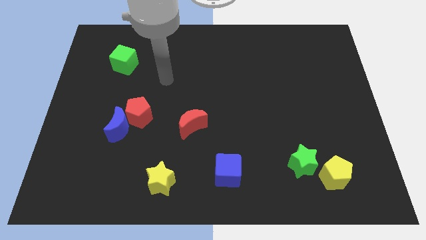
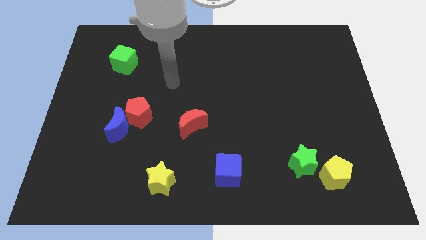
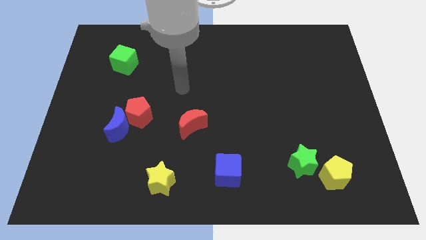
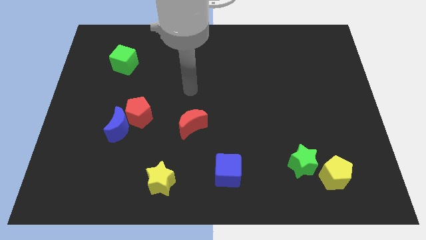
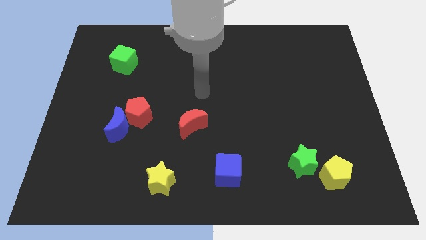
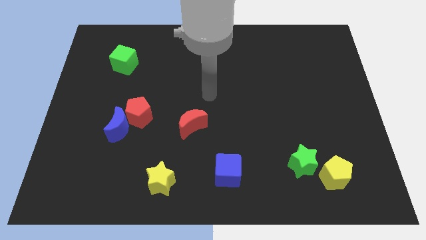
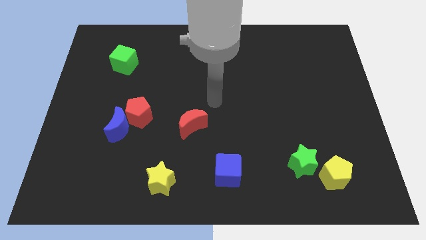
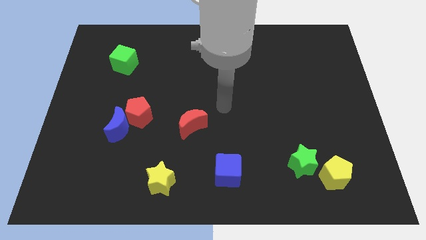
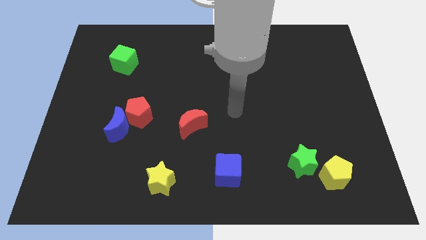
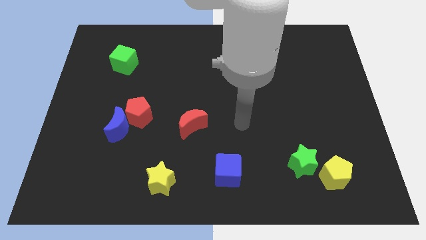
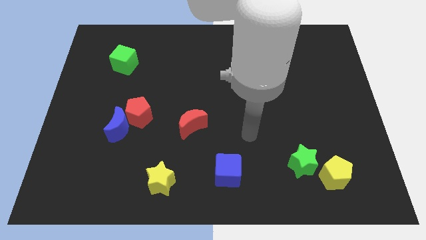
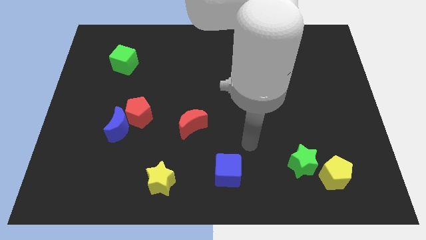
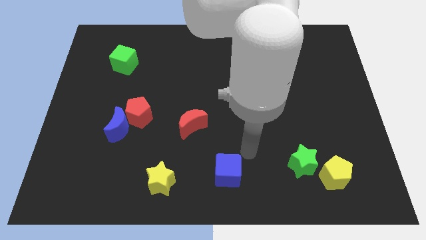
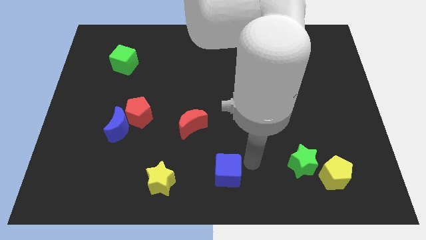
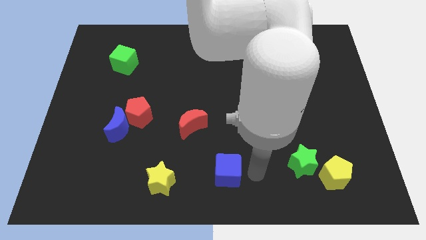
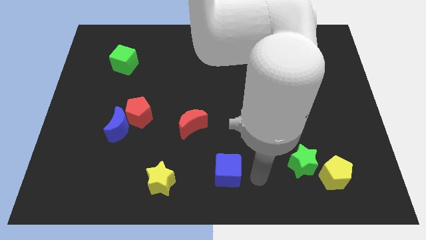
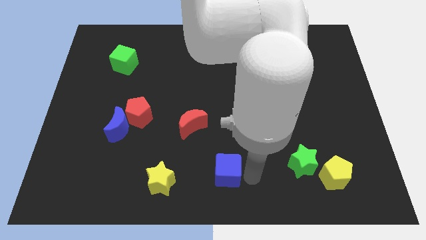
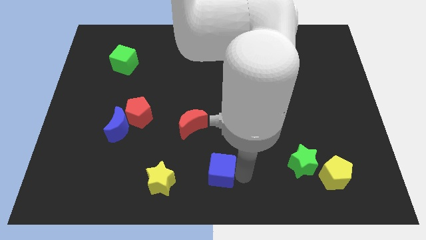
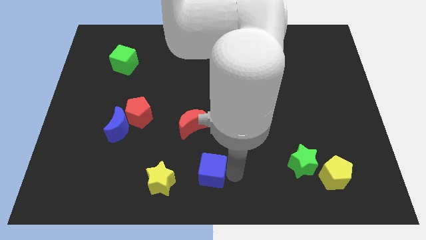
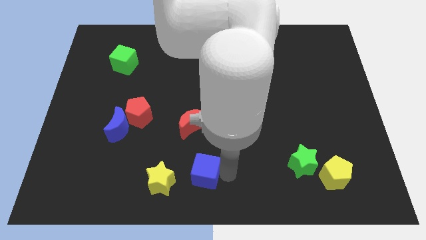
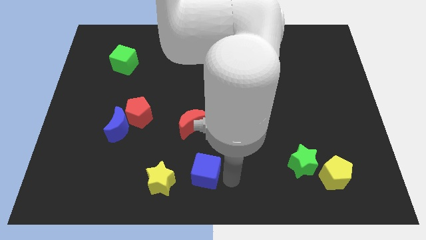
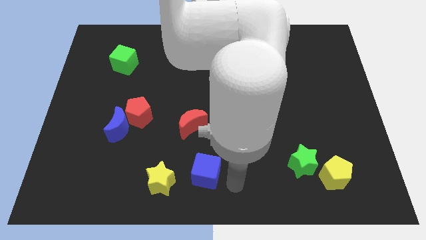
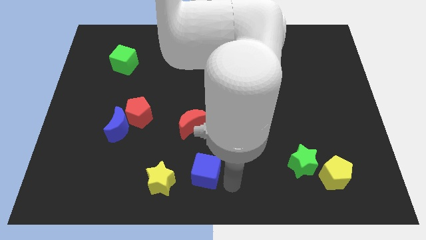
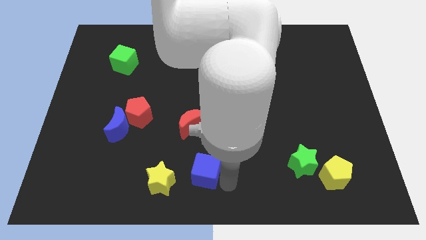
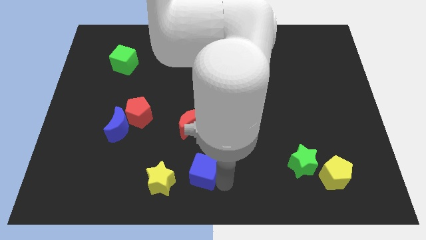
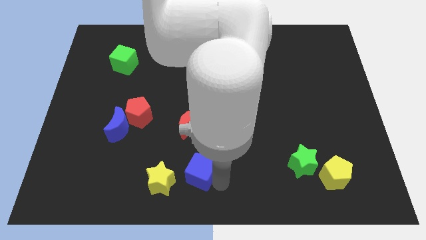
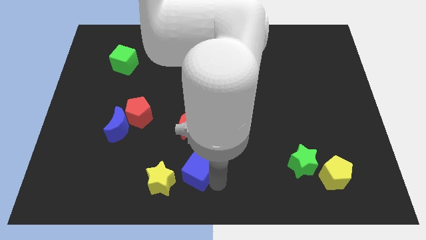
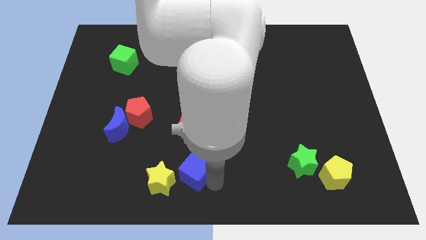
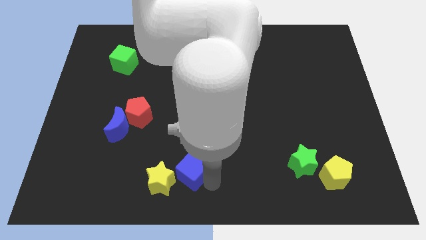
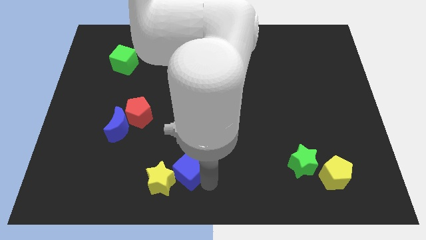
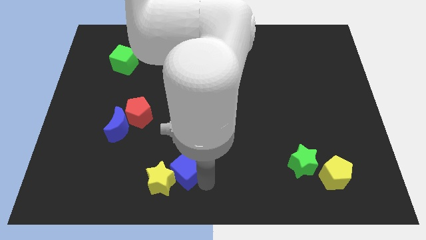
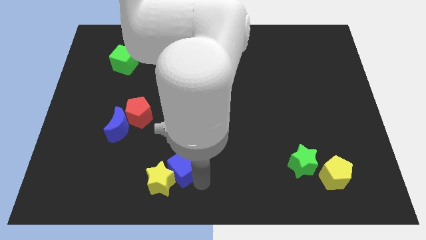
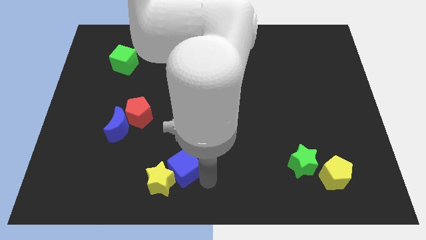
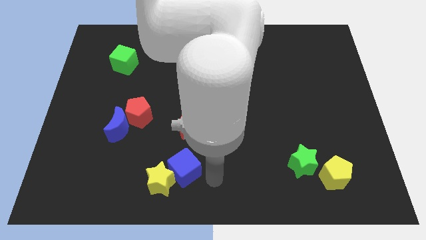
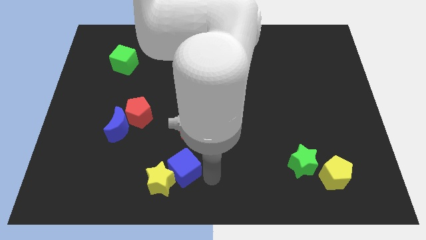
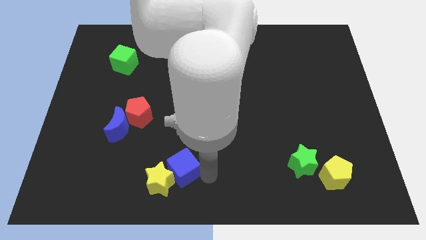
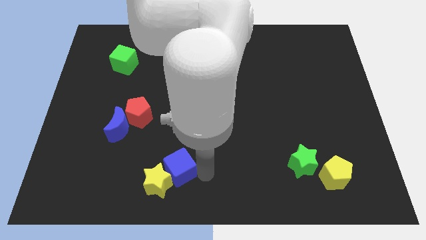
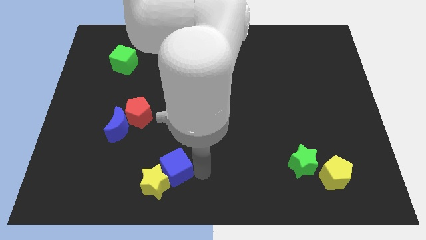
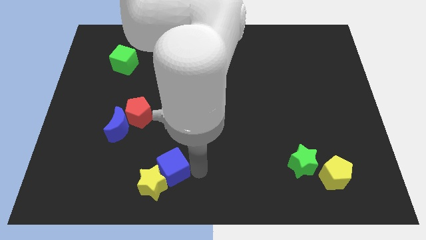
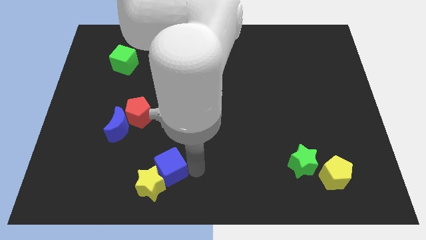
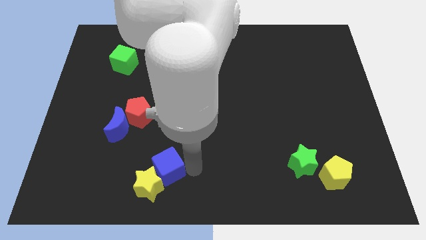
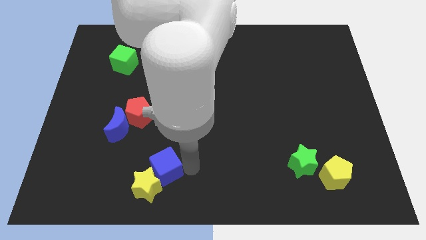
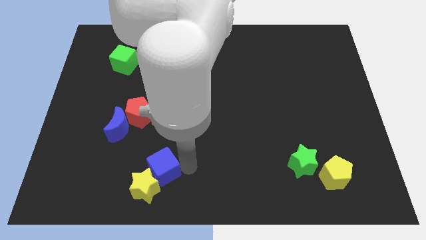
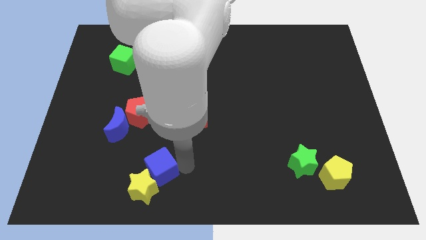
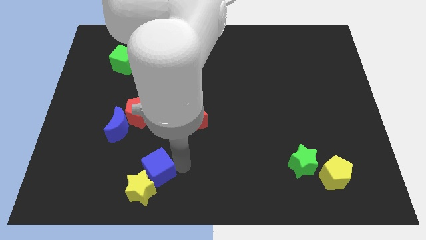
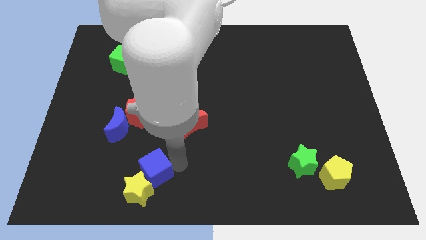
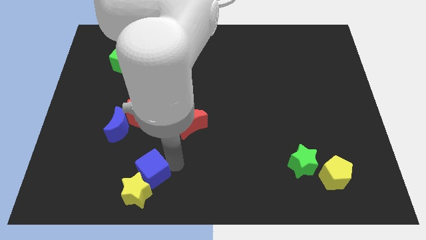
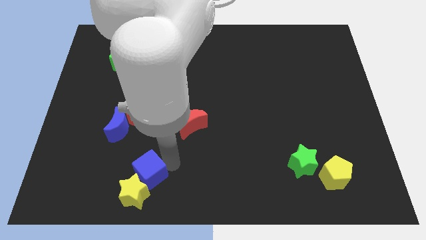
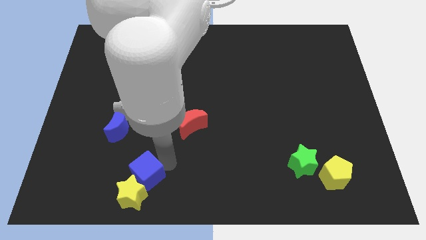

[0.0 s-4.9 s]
move the blue cube to the bottom side of the red pentagon

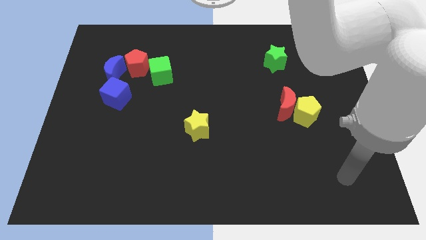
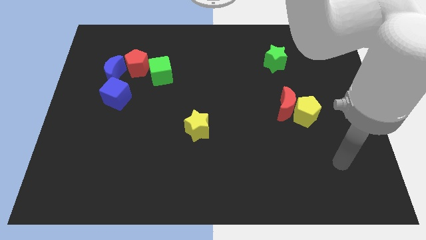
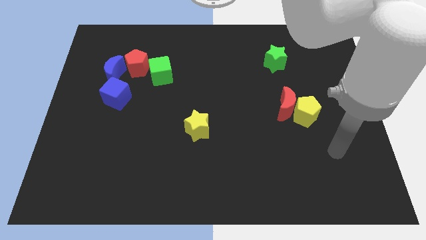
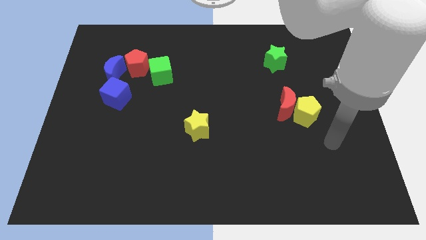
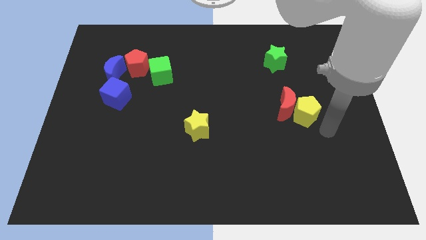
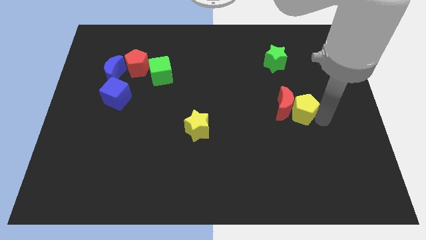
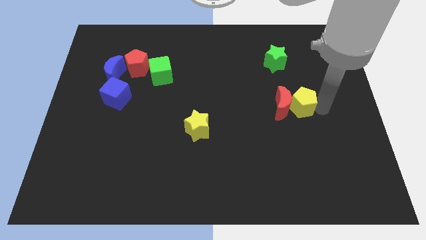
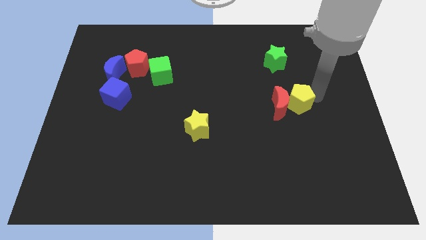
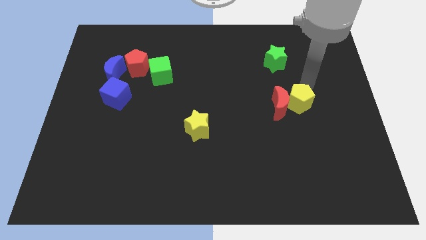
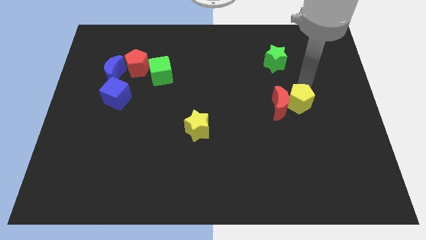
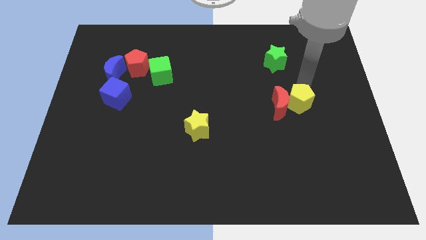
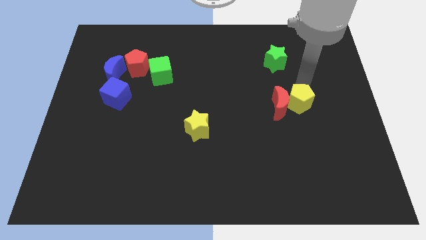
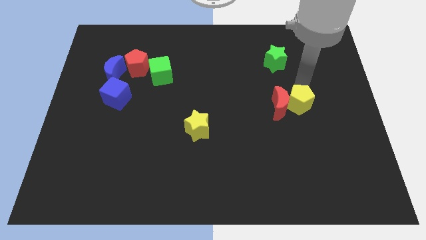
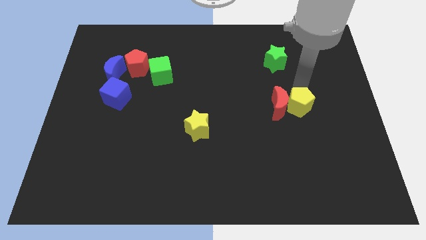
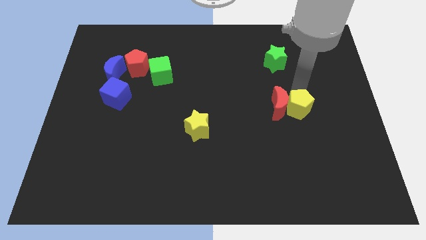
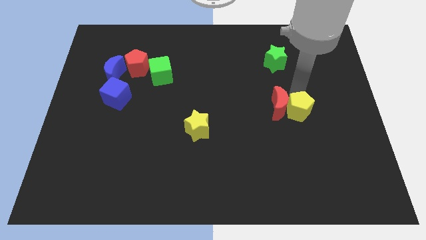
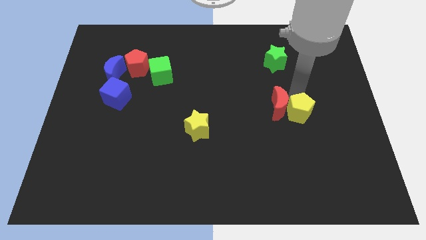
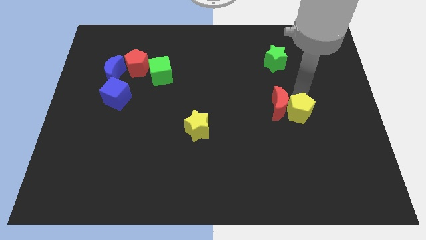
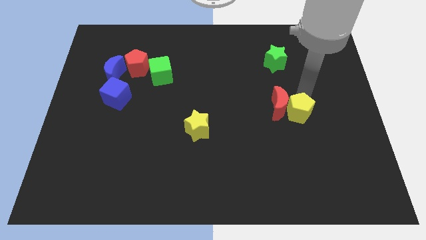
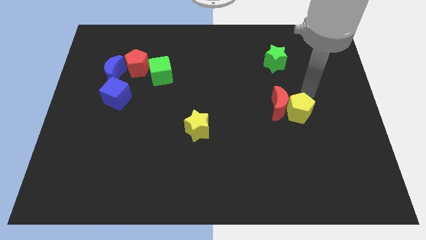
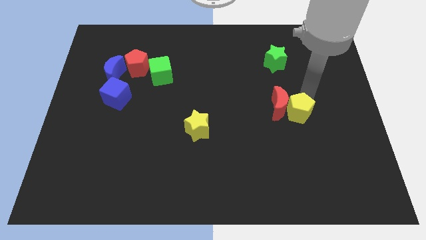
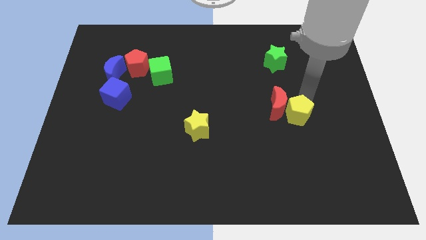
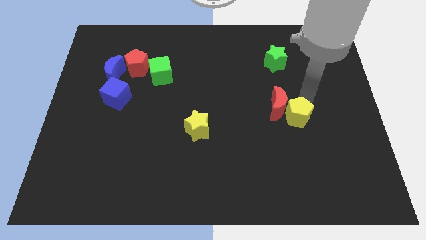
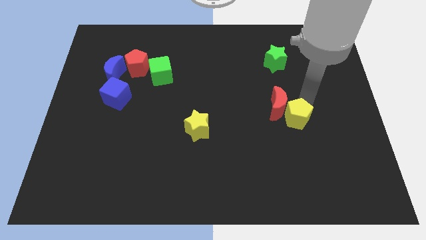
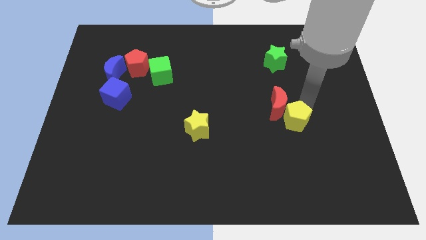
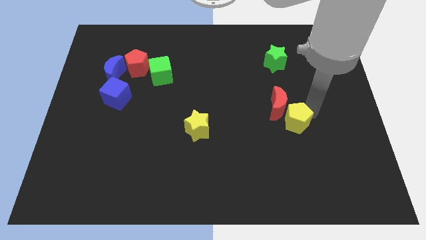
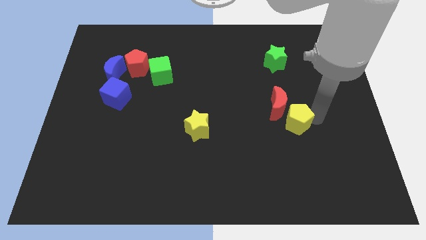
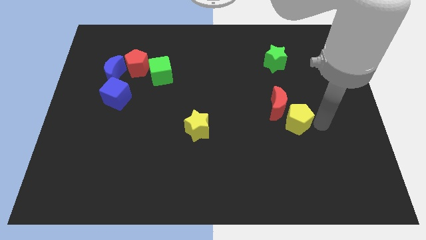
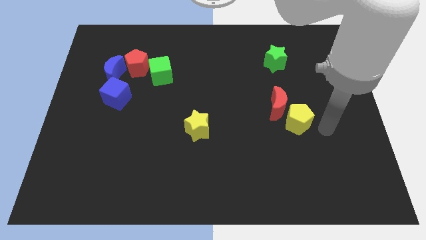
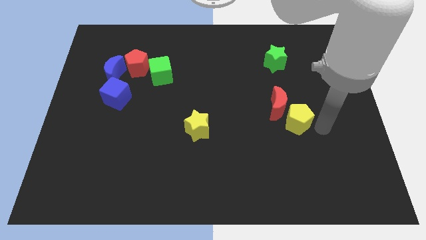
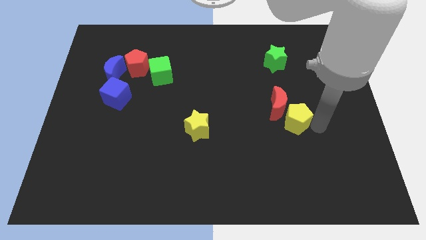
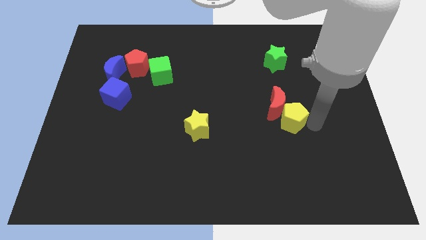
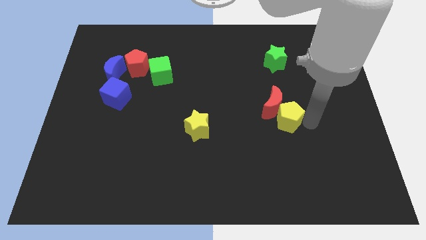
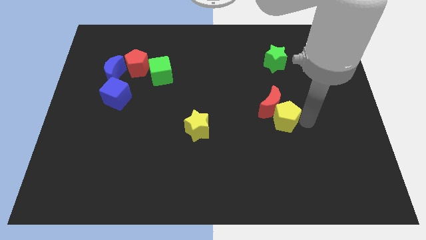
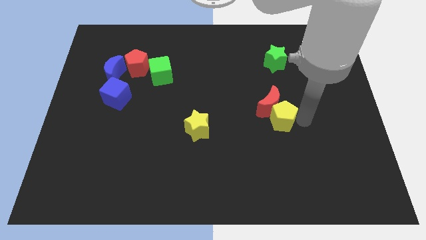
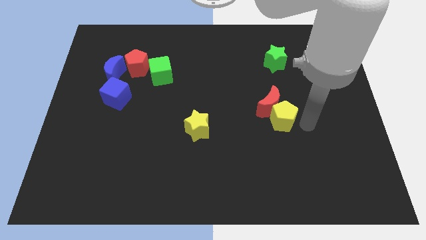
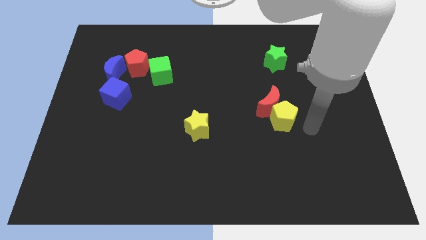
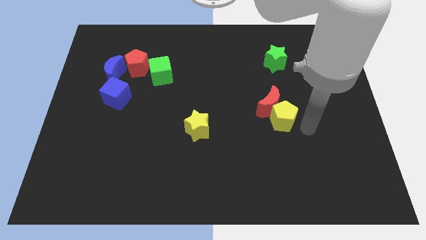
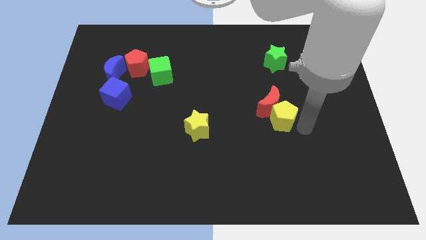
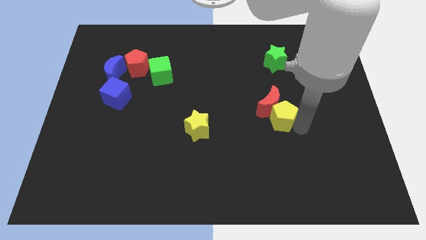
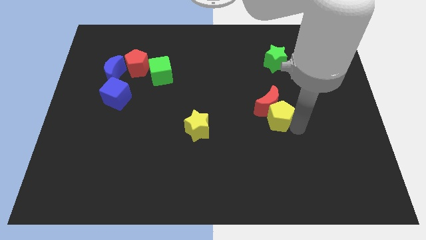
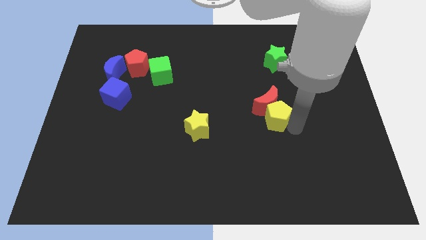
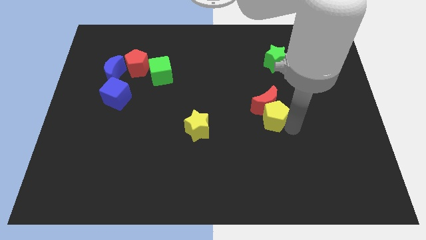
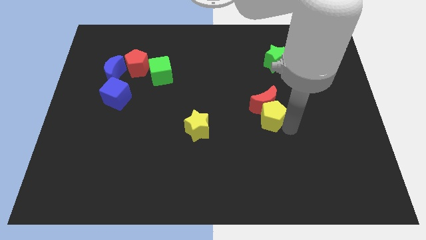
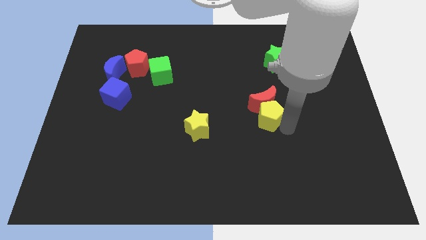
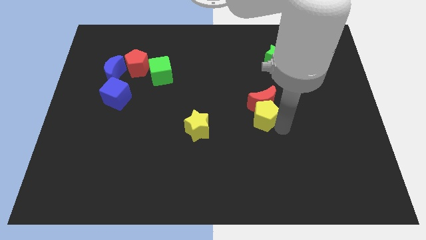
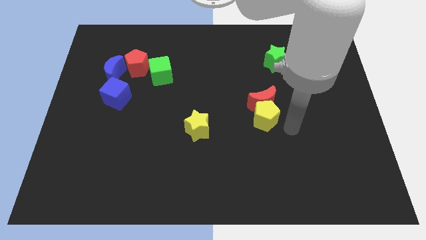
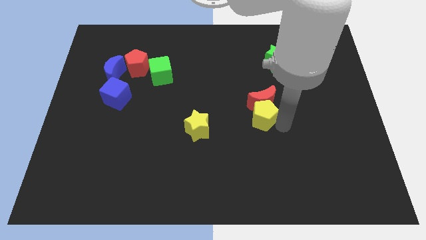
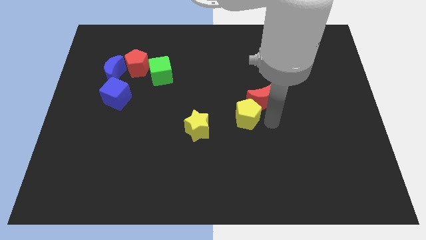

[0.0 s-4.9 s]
slide the yellow pentagon to the left of the red moon
